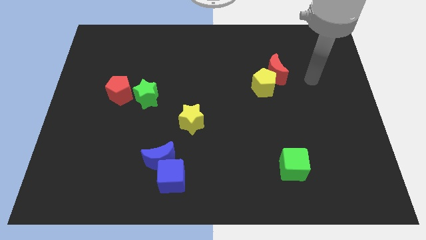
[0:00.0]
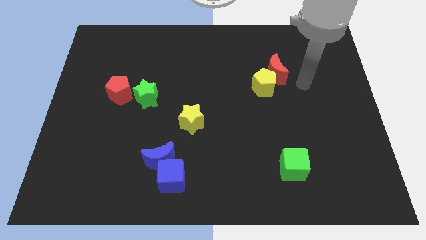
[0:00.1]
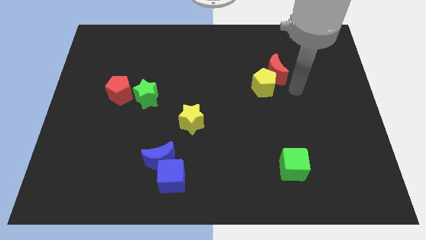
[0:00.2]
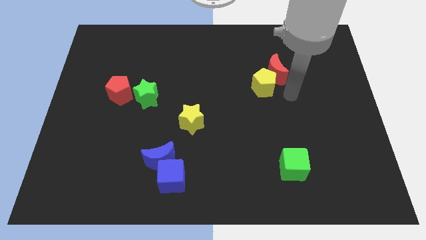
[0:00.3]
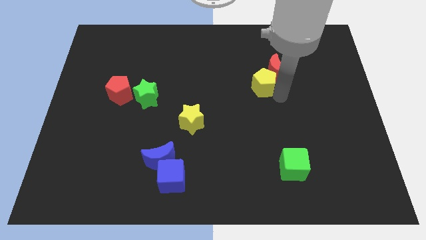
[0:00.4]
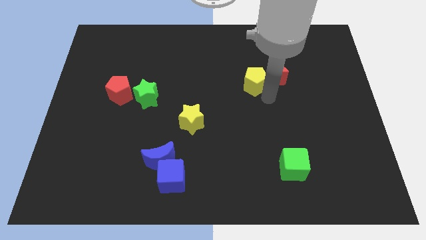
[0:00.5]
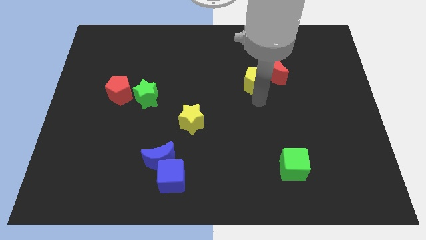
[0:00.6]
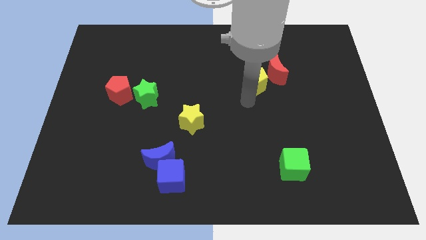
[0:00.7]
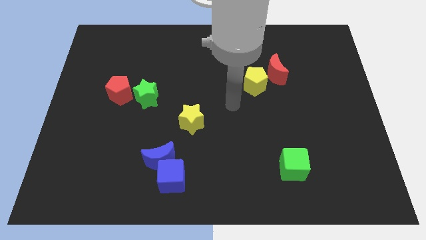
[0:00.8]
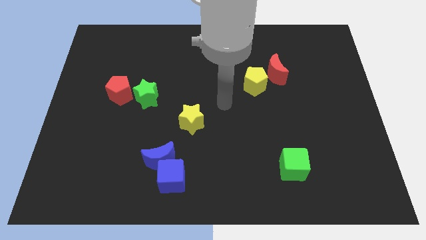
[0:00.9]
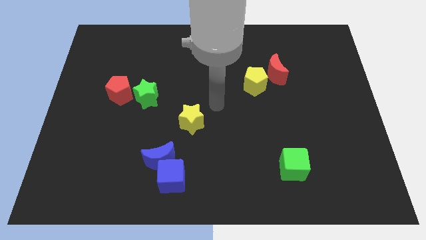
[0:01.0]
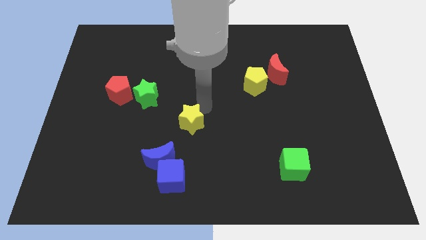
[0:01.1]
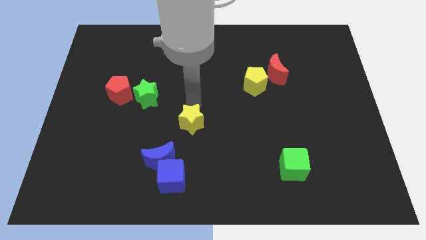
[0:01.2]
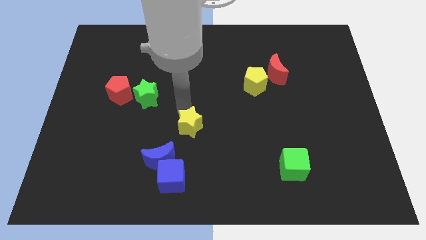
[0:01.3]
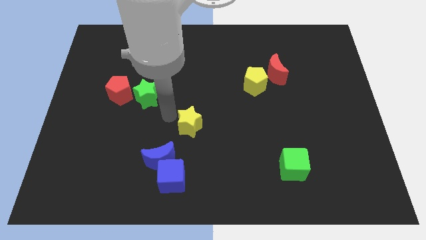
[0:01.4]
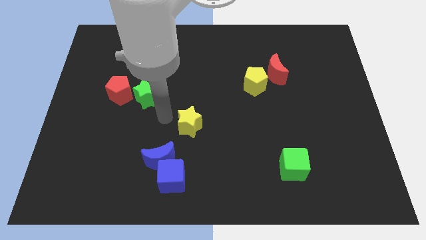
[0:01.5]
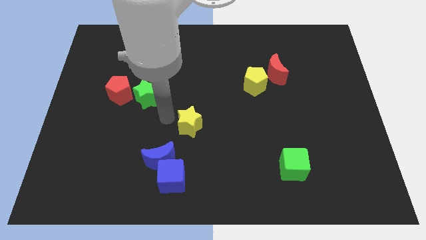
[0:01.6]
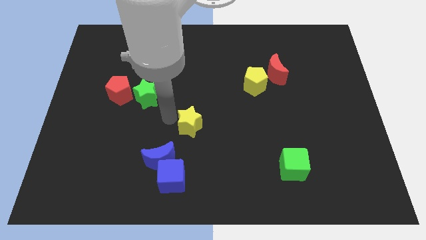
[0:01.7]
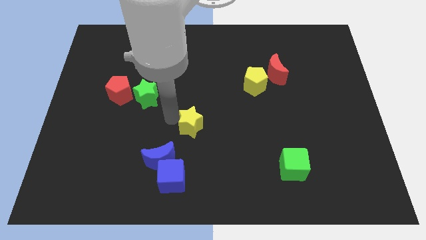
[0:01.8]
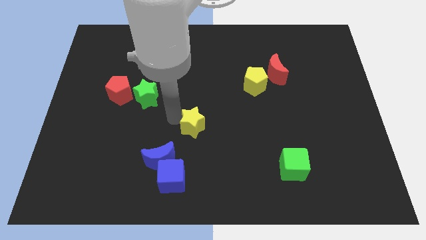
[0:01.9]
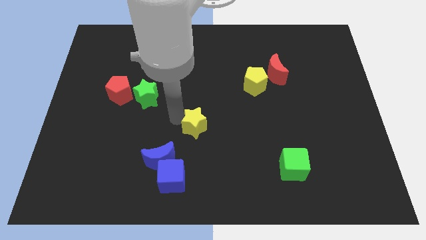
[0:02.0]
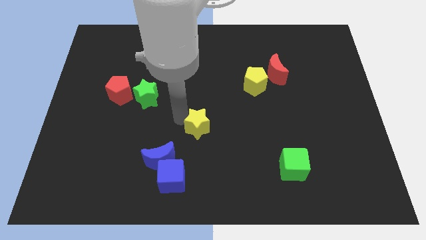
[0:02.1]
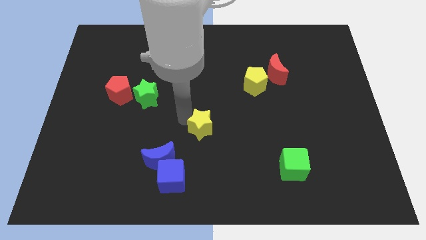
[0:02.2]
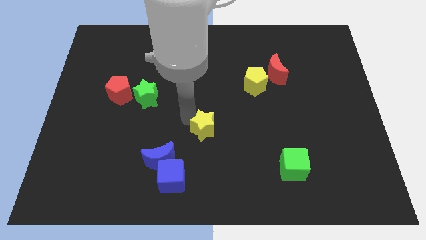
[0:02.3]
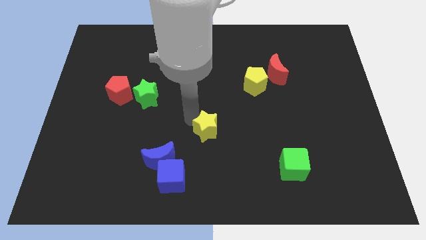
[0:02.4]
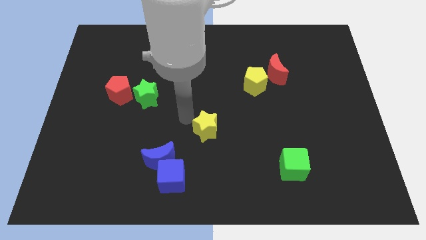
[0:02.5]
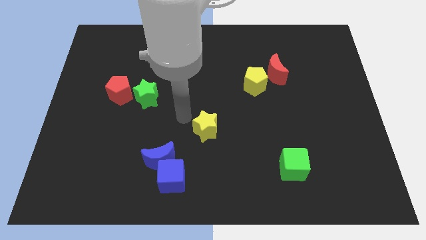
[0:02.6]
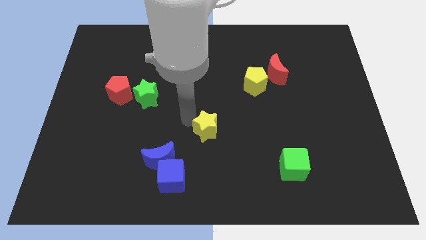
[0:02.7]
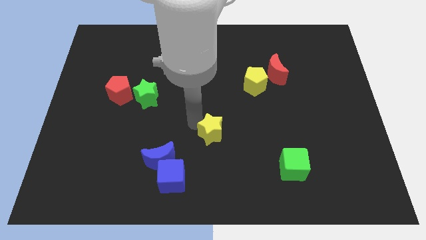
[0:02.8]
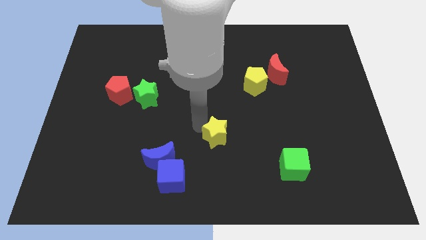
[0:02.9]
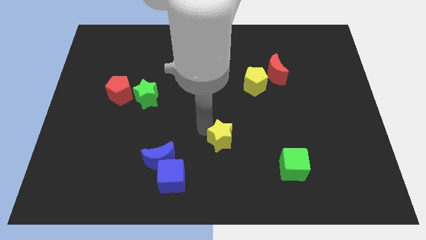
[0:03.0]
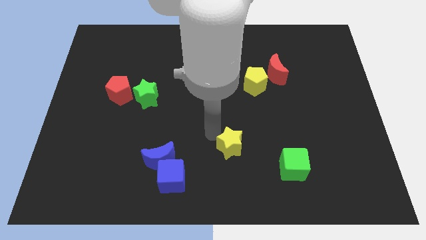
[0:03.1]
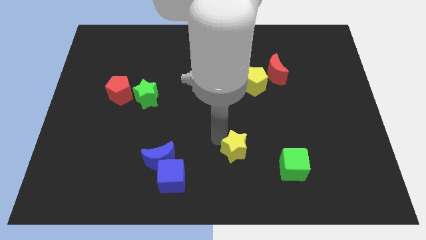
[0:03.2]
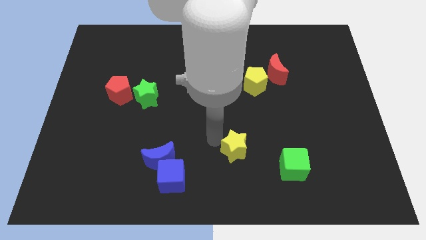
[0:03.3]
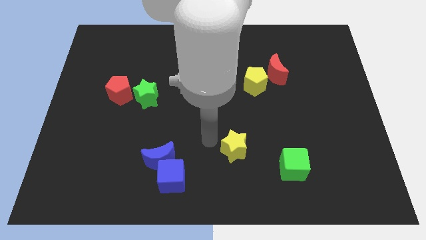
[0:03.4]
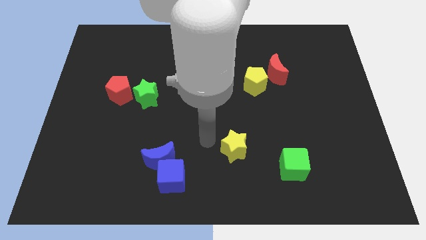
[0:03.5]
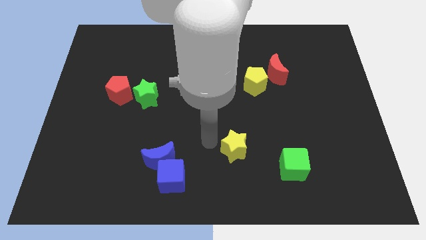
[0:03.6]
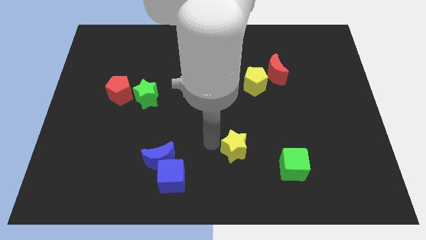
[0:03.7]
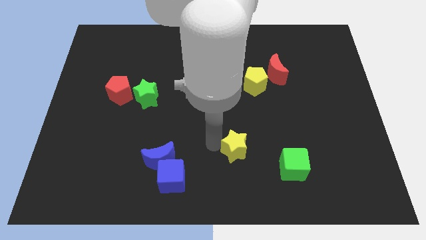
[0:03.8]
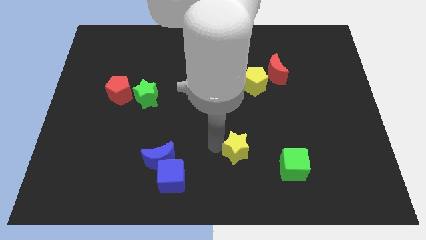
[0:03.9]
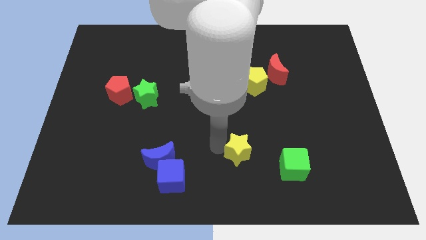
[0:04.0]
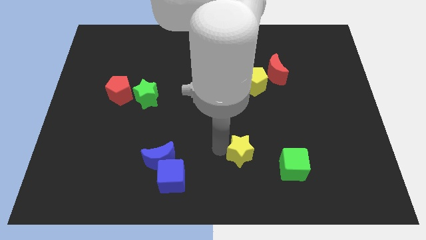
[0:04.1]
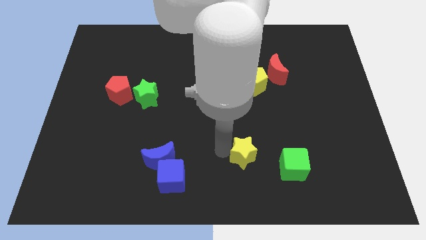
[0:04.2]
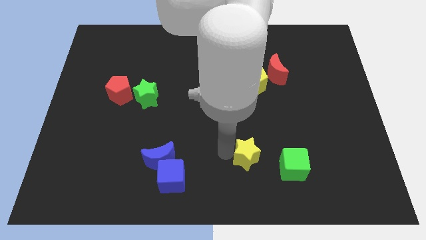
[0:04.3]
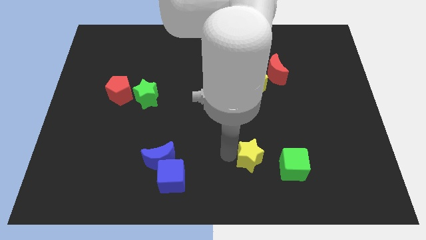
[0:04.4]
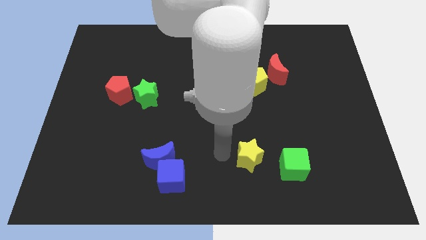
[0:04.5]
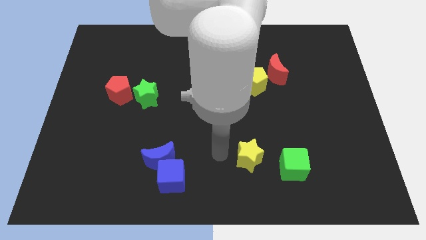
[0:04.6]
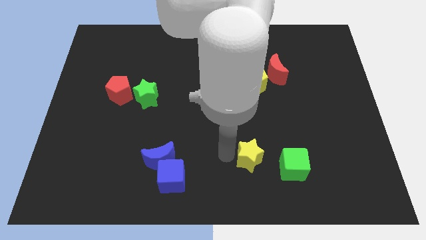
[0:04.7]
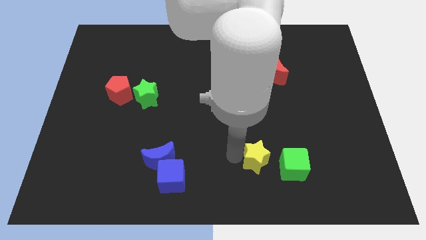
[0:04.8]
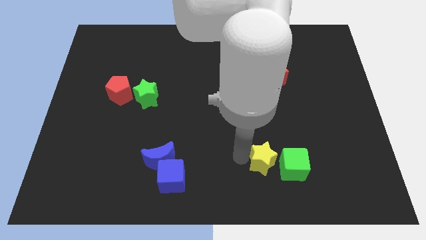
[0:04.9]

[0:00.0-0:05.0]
push the yellow star to the green cube
